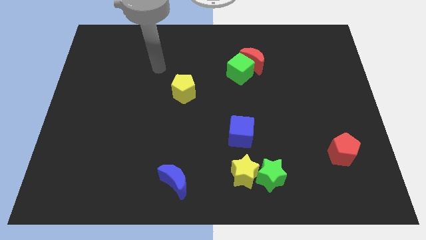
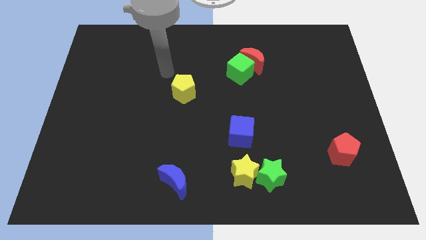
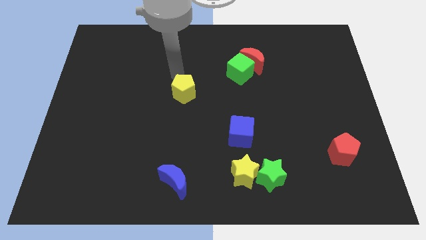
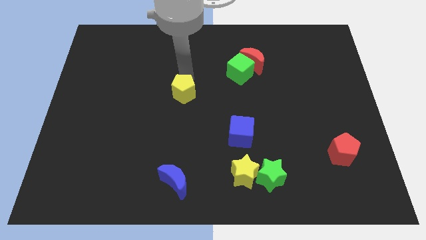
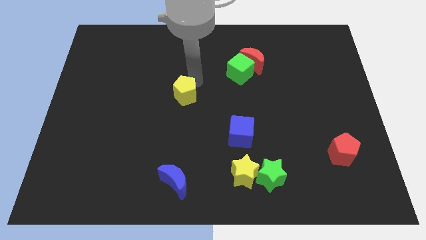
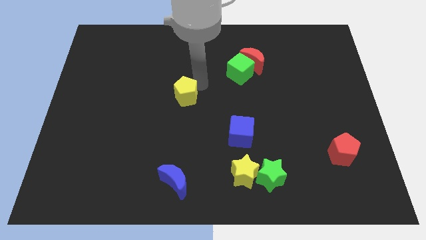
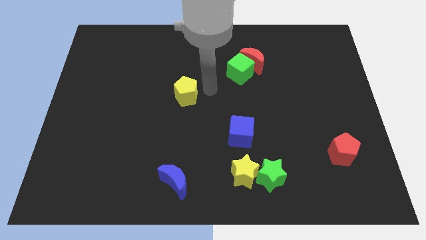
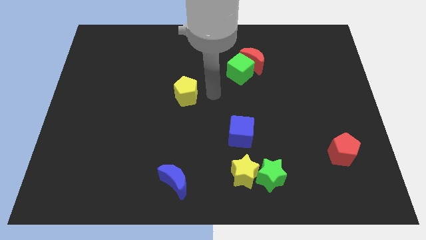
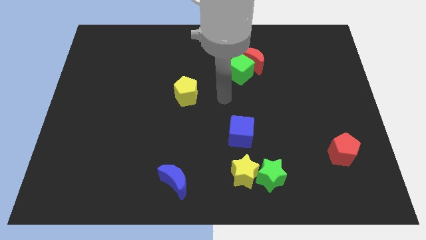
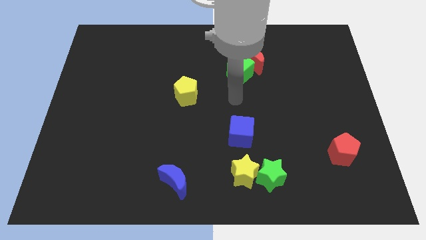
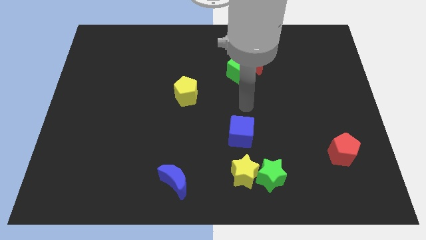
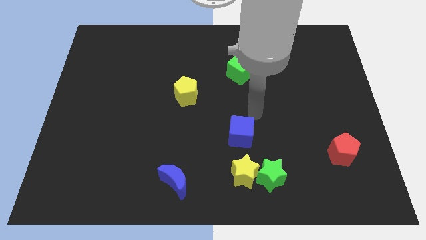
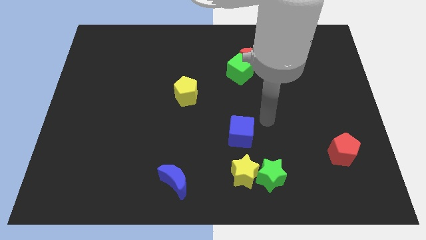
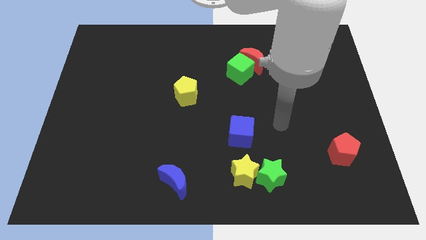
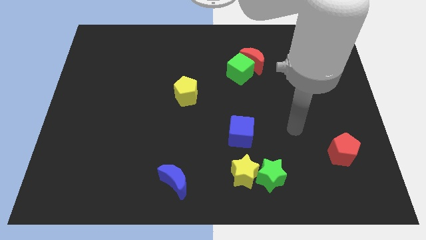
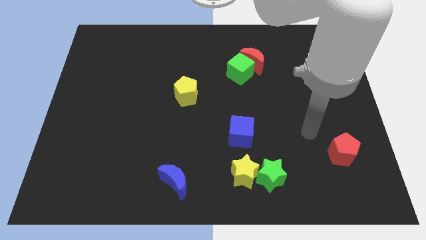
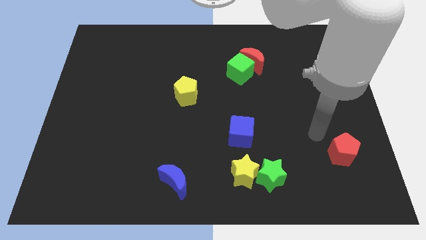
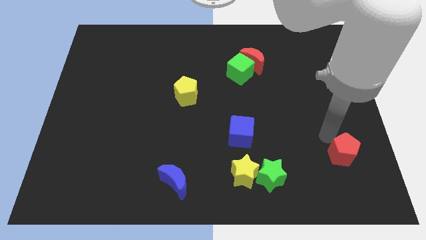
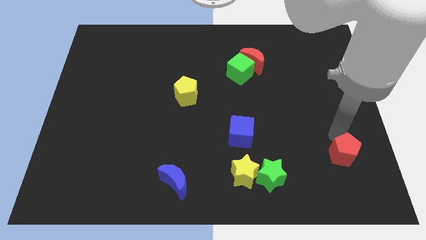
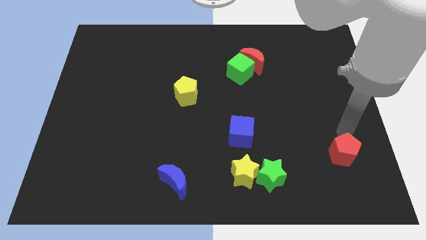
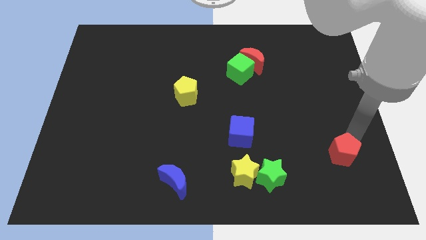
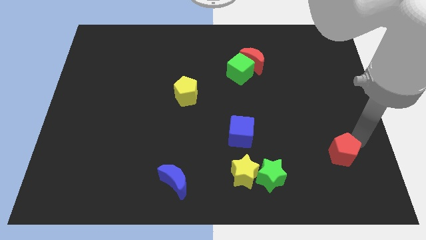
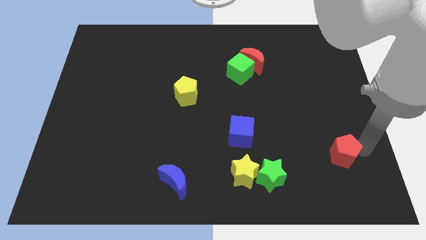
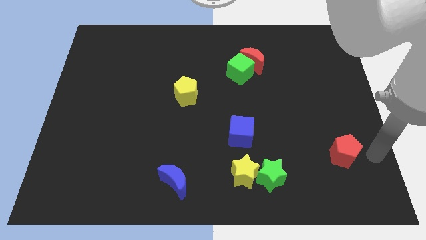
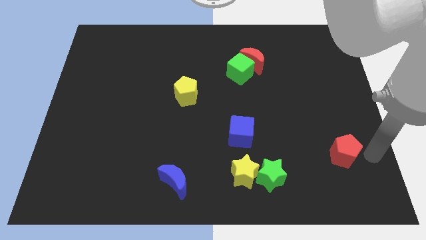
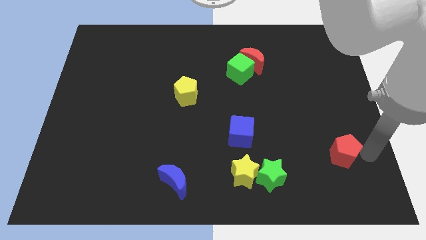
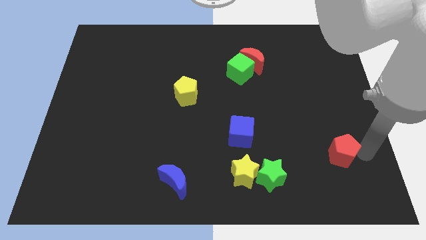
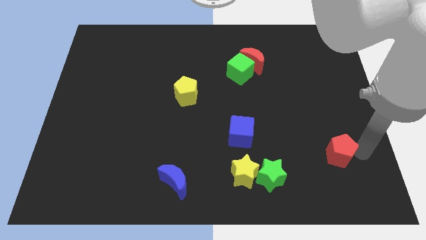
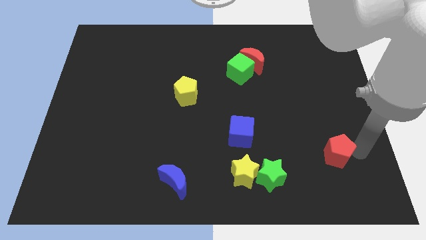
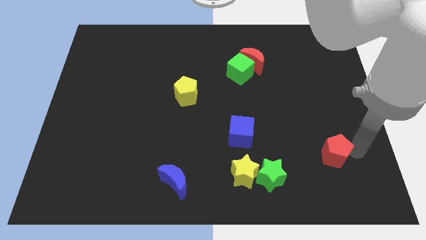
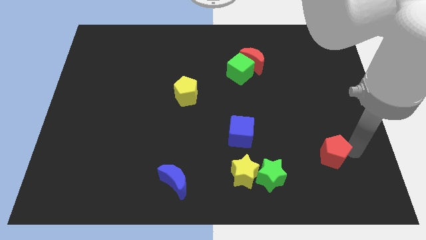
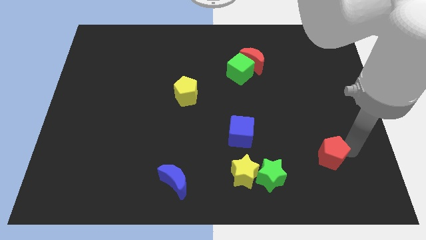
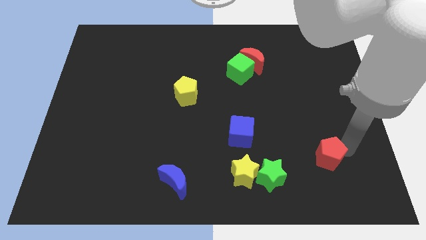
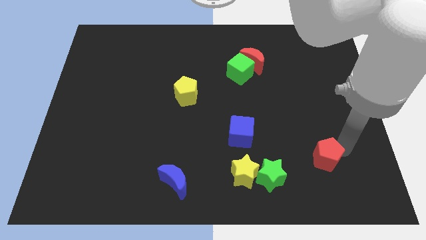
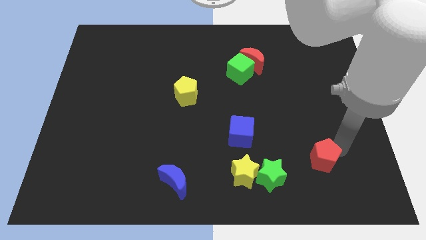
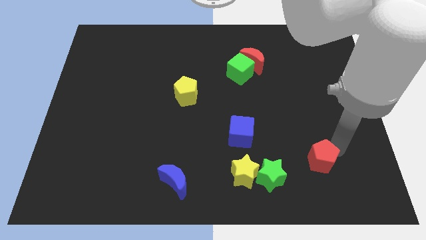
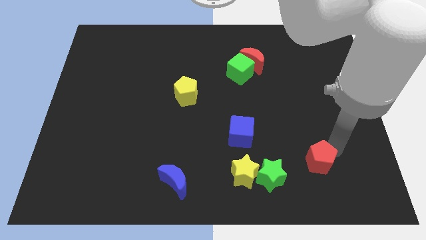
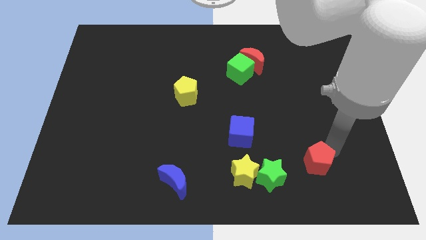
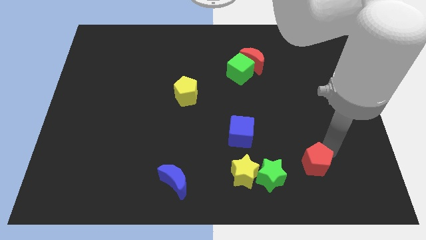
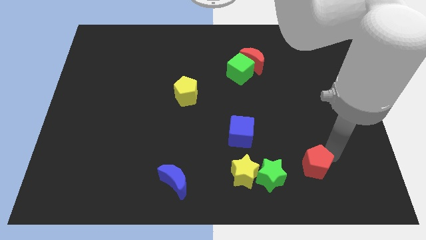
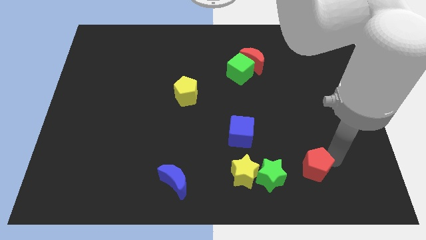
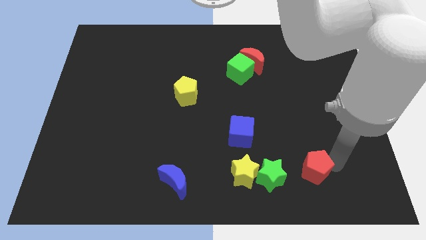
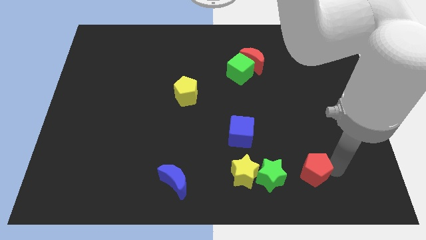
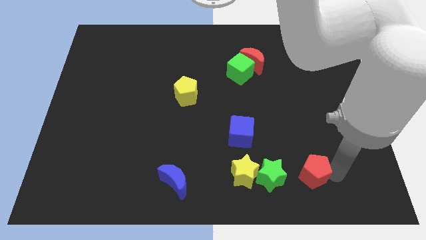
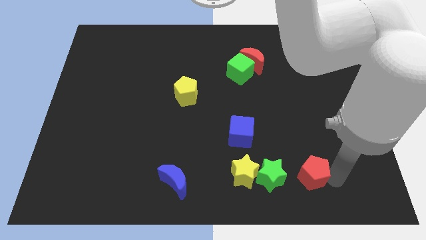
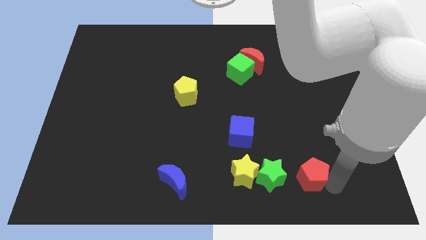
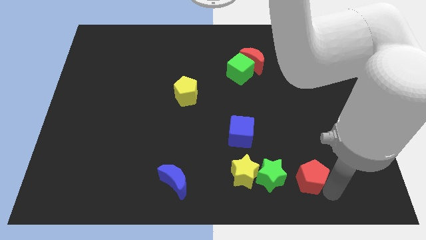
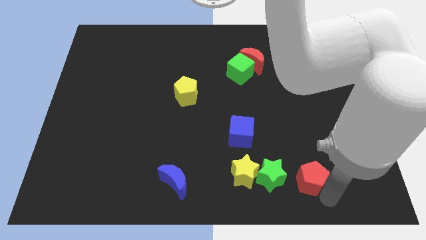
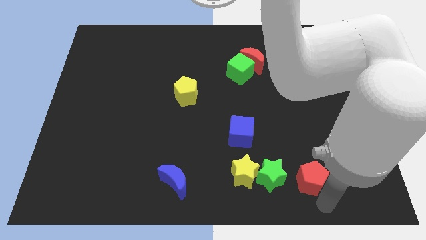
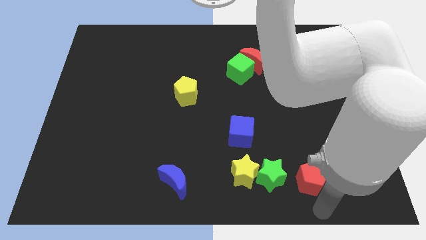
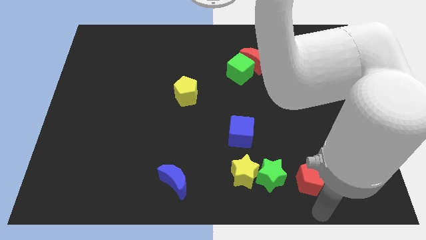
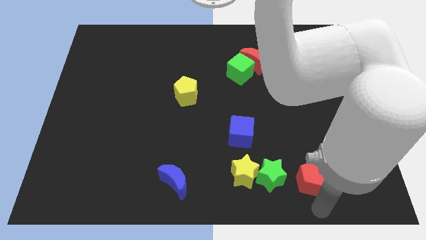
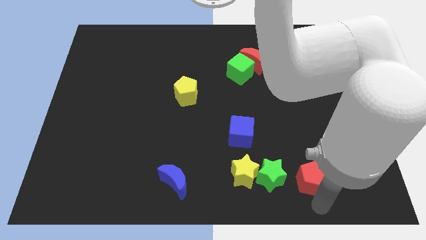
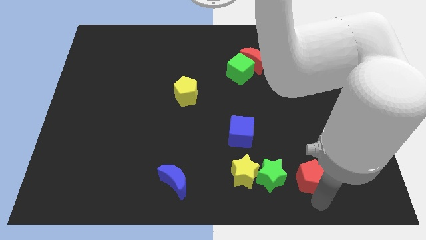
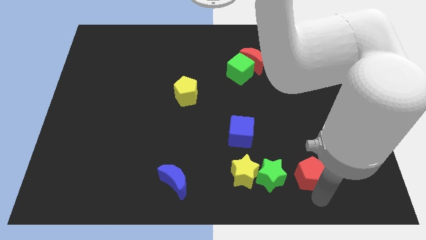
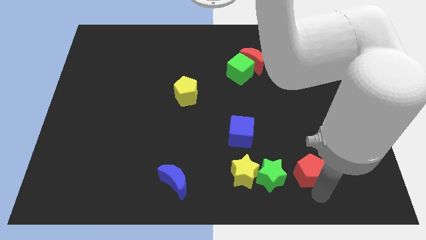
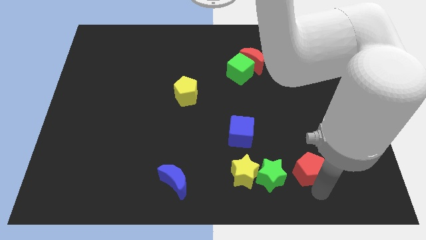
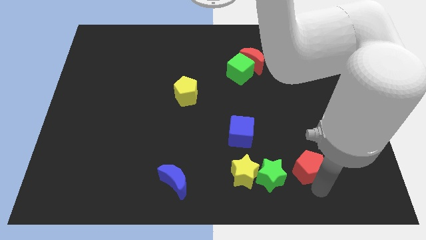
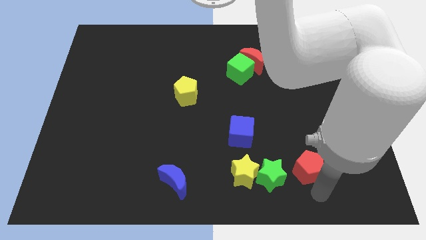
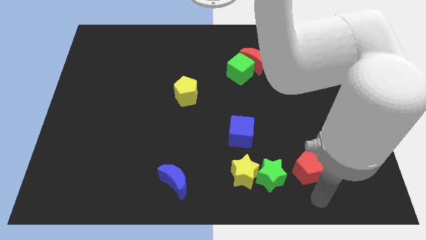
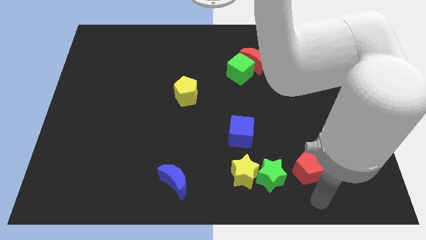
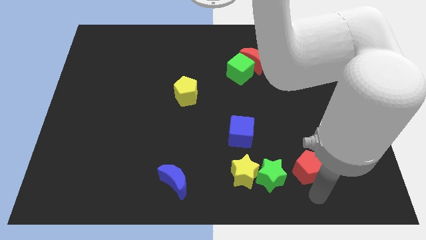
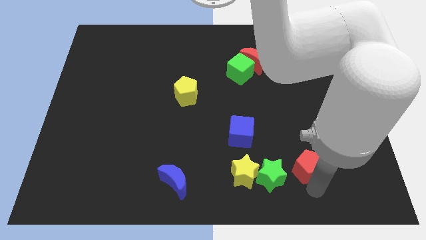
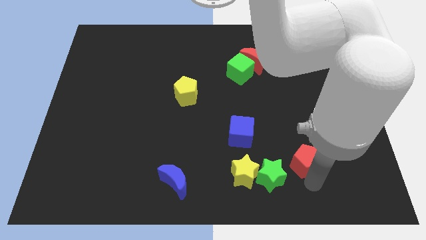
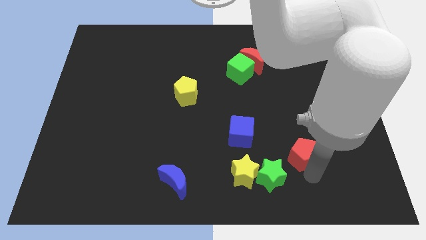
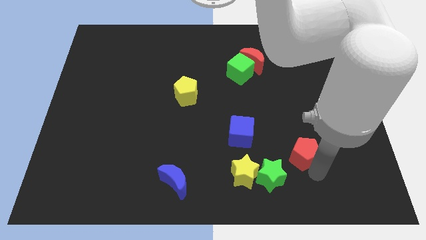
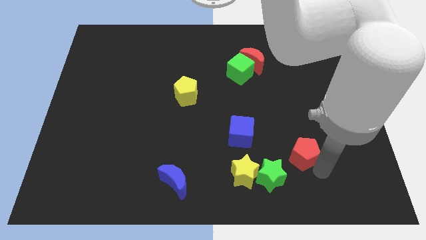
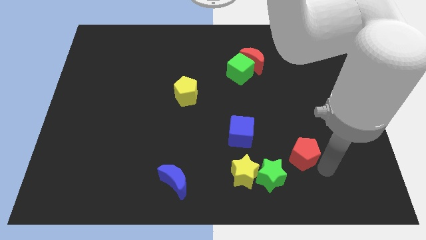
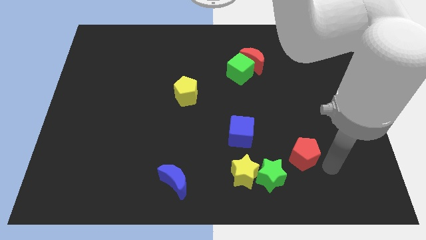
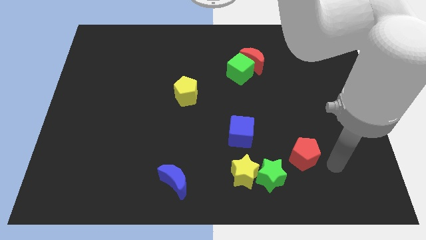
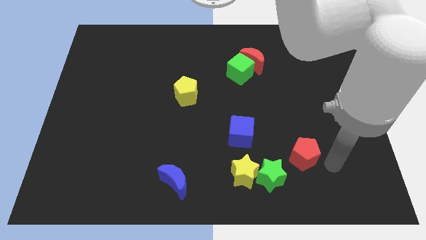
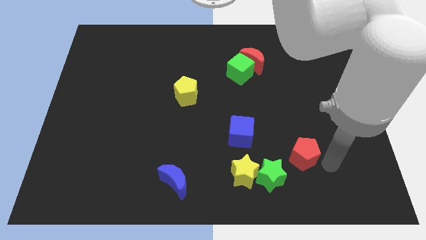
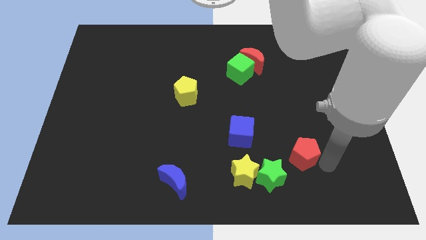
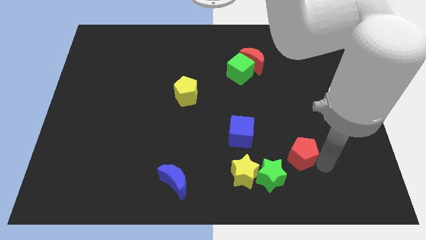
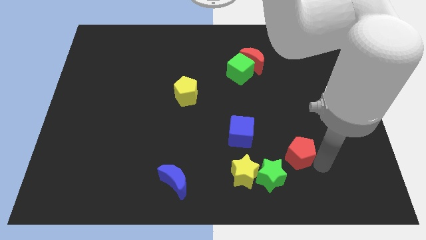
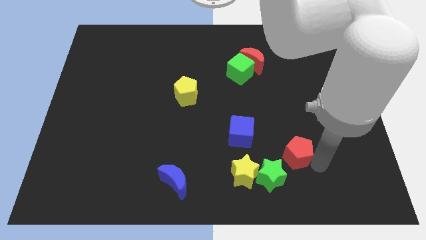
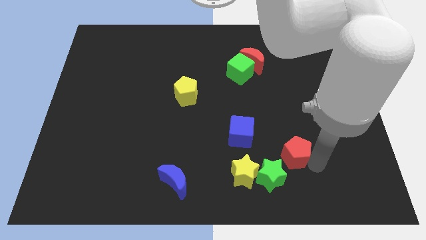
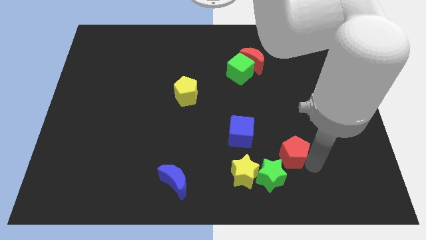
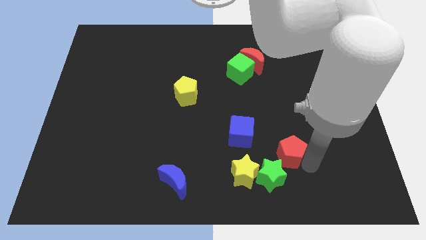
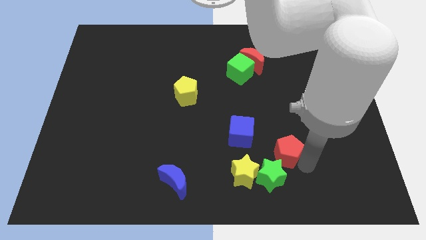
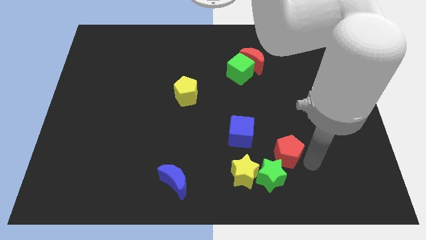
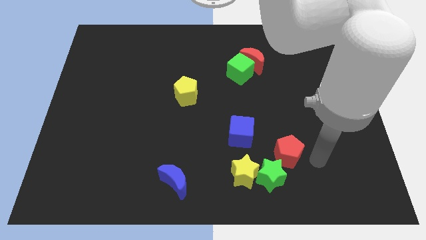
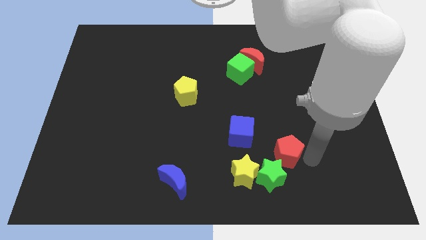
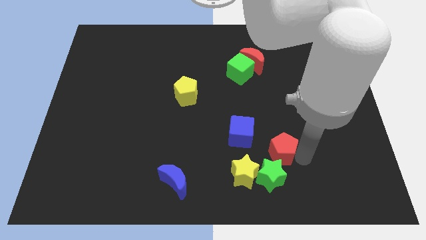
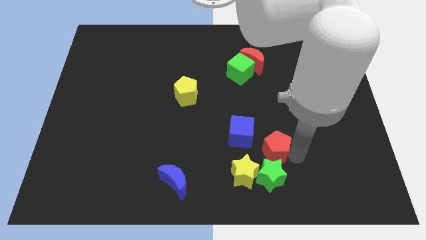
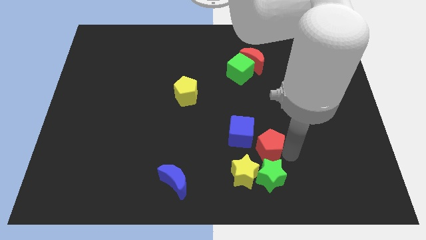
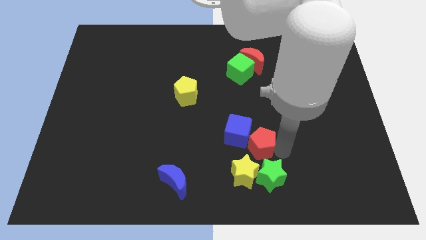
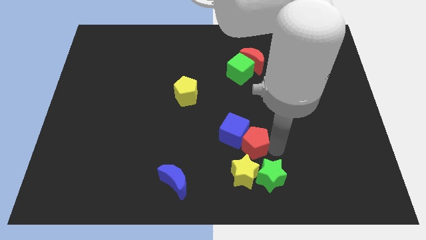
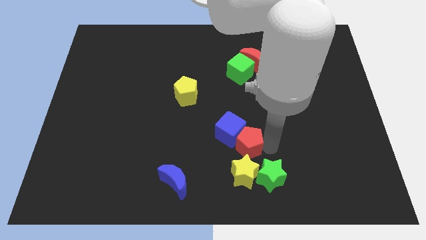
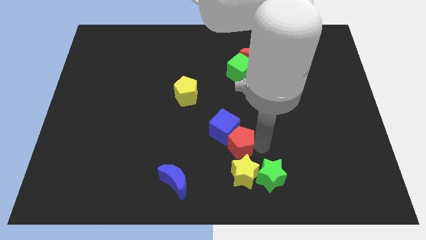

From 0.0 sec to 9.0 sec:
put the red pentagon to the top left side of the yellow star
